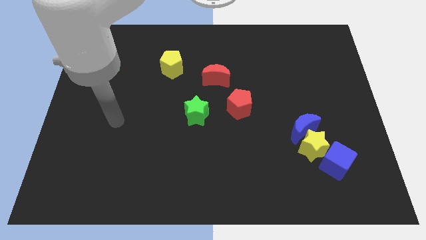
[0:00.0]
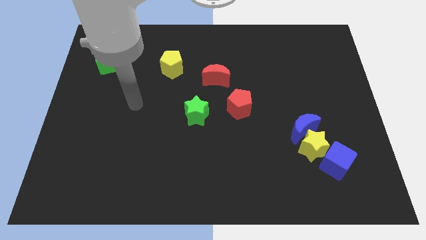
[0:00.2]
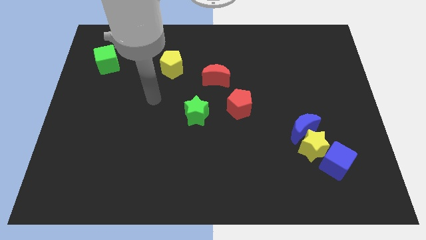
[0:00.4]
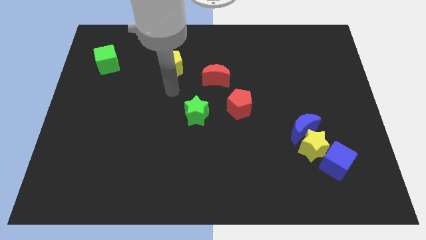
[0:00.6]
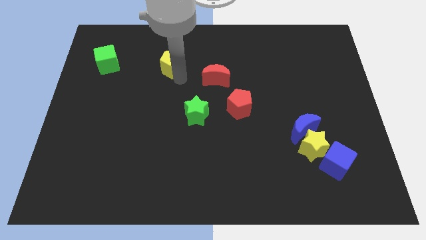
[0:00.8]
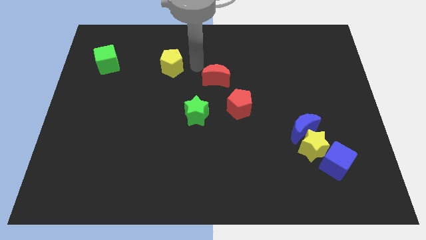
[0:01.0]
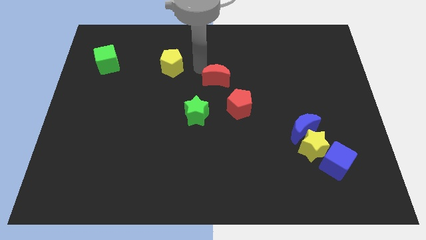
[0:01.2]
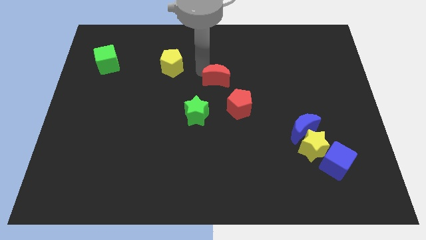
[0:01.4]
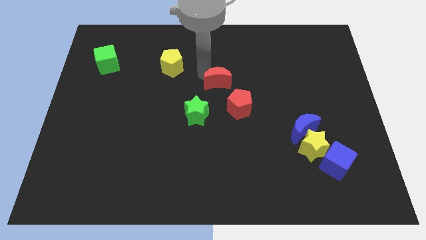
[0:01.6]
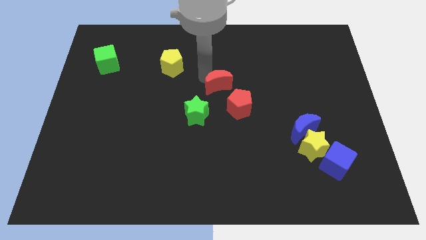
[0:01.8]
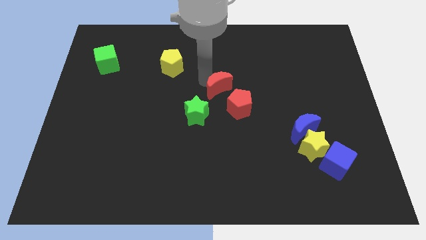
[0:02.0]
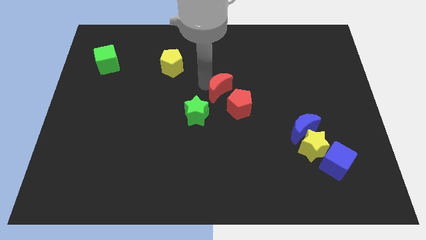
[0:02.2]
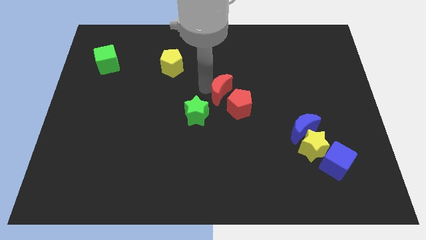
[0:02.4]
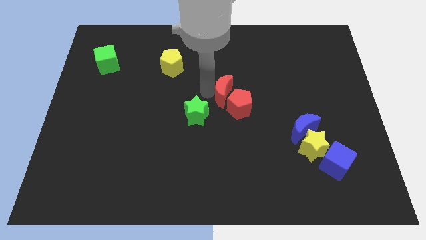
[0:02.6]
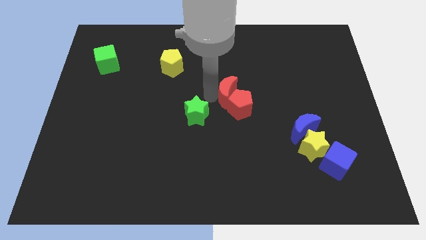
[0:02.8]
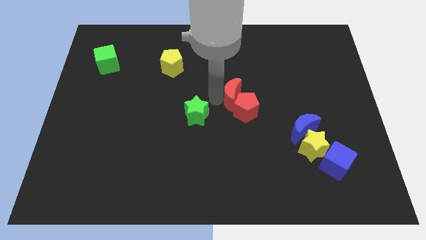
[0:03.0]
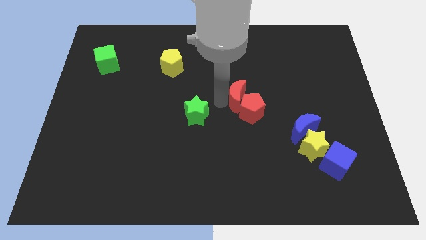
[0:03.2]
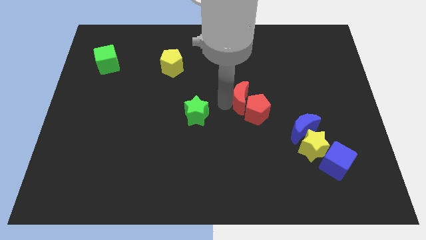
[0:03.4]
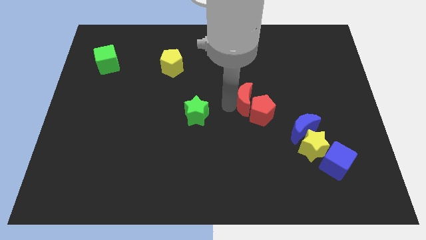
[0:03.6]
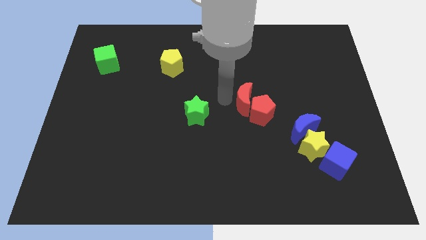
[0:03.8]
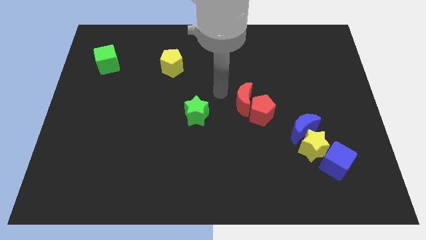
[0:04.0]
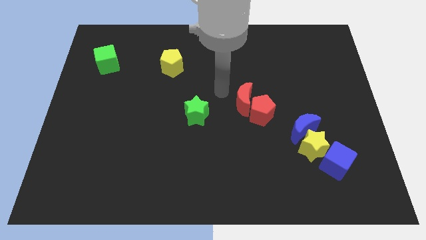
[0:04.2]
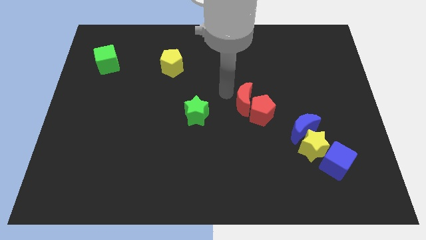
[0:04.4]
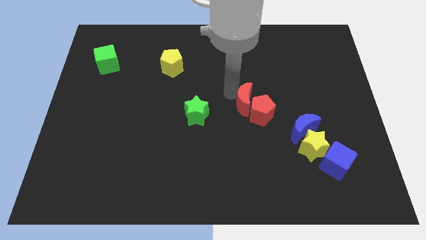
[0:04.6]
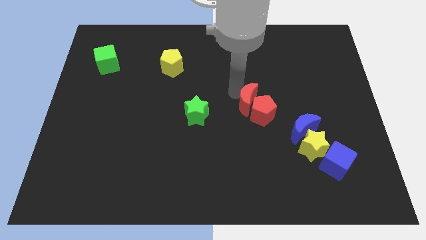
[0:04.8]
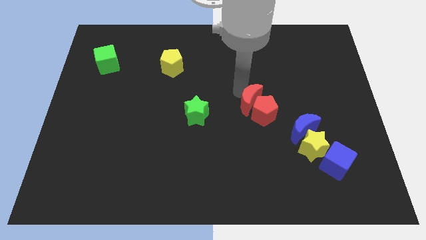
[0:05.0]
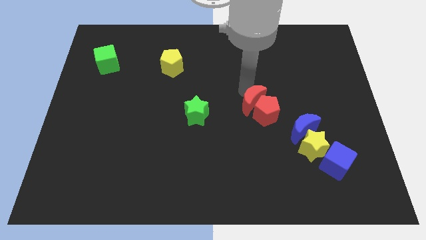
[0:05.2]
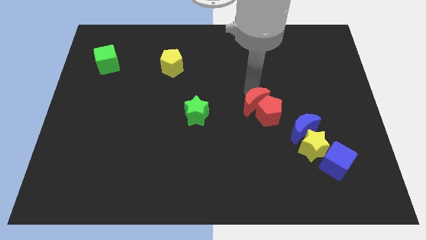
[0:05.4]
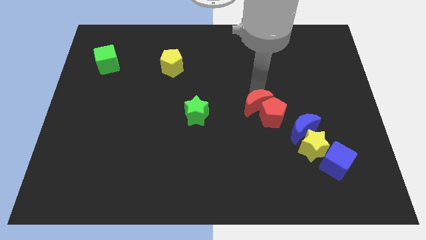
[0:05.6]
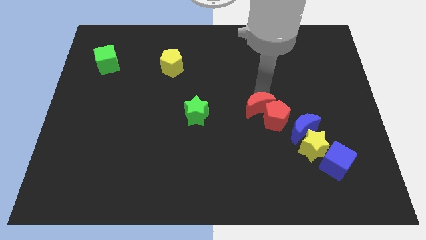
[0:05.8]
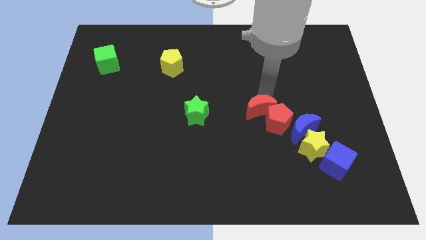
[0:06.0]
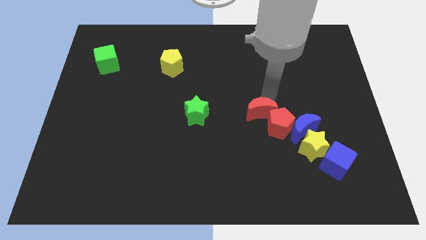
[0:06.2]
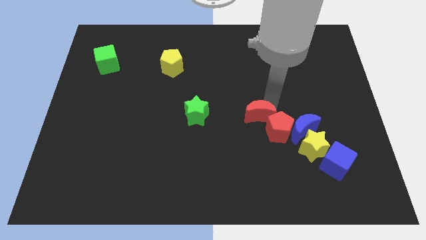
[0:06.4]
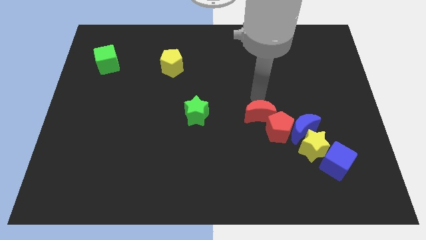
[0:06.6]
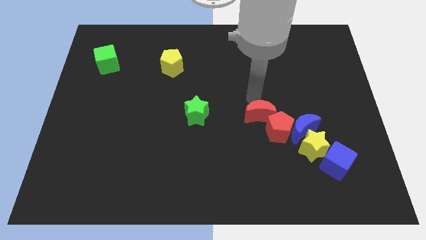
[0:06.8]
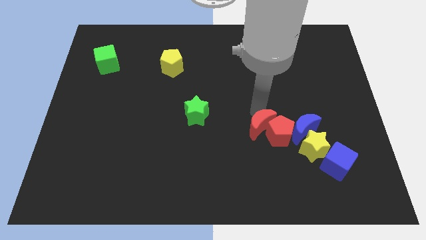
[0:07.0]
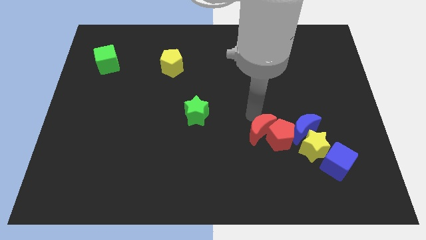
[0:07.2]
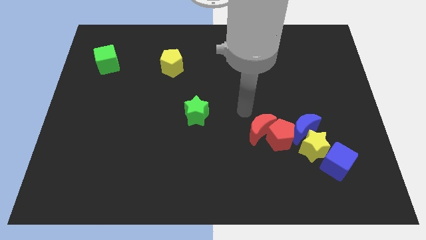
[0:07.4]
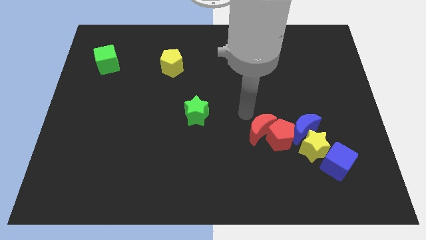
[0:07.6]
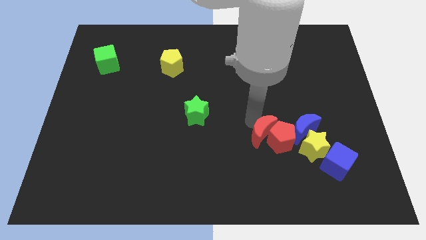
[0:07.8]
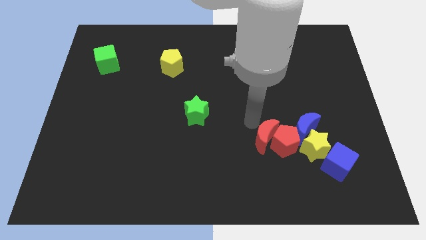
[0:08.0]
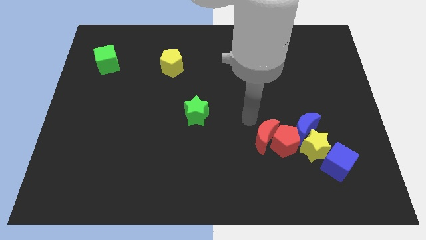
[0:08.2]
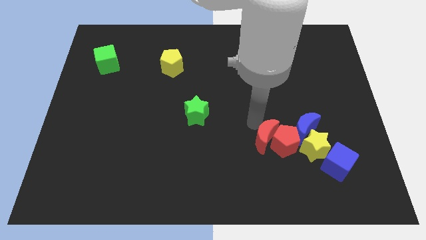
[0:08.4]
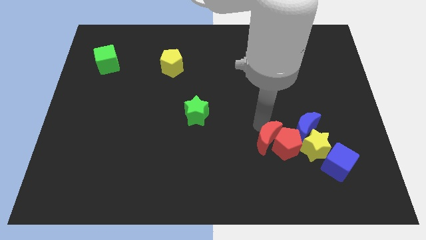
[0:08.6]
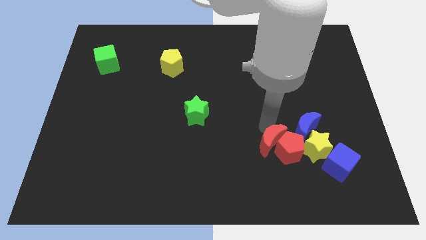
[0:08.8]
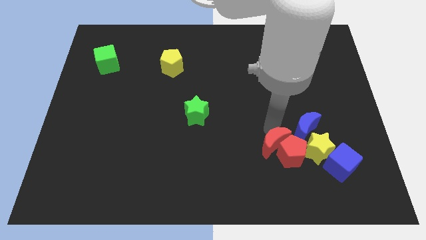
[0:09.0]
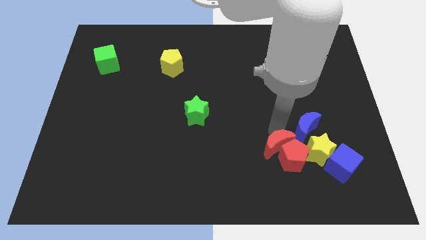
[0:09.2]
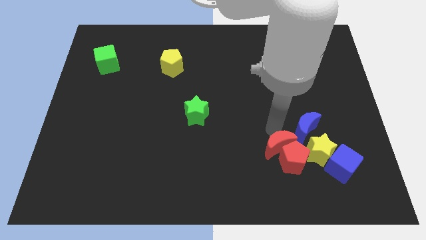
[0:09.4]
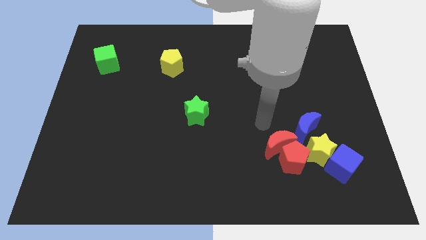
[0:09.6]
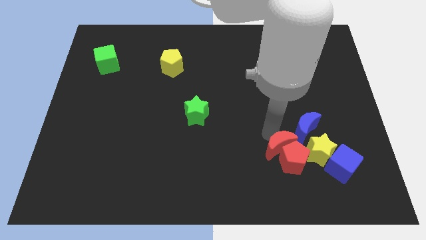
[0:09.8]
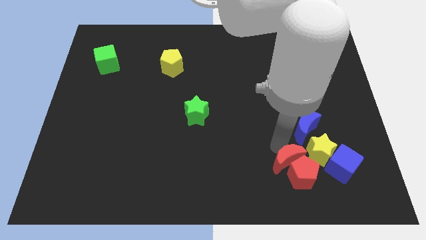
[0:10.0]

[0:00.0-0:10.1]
push the red moon to the bottom left side of the yellow star

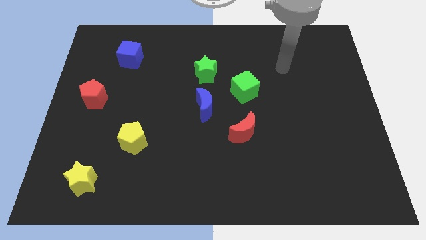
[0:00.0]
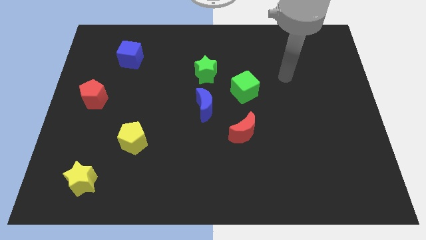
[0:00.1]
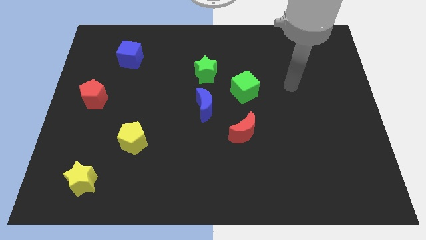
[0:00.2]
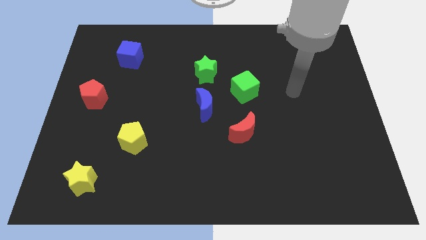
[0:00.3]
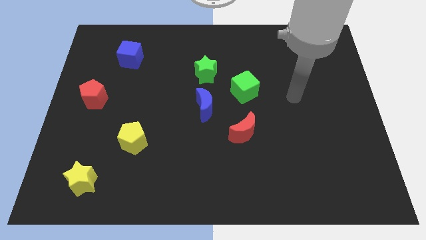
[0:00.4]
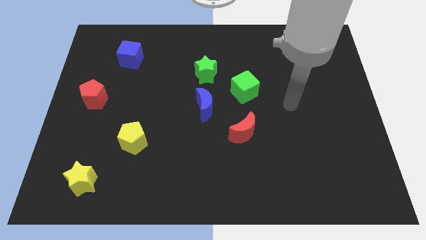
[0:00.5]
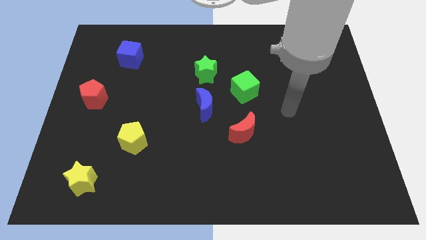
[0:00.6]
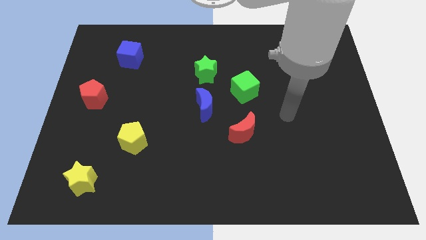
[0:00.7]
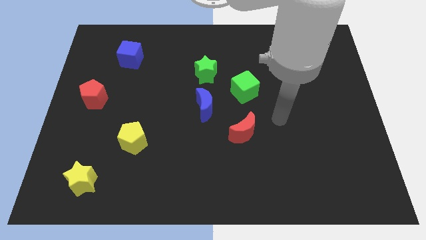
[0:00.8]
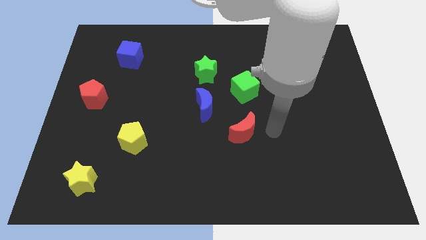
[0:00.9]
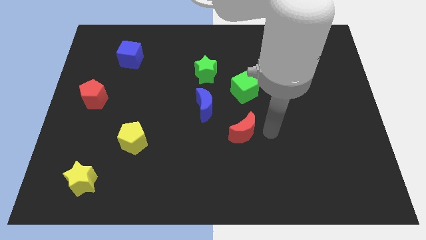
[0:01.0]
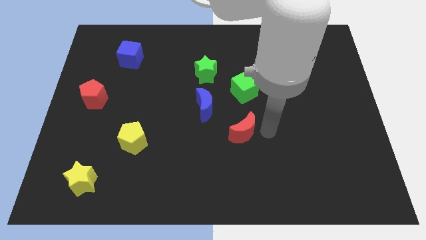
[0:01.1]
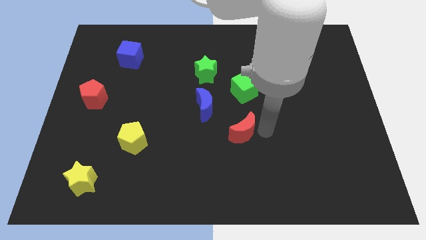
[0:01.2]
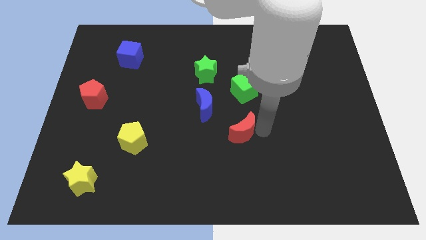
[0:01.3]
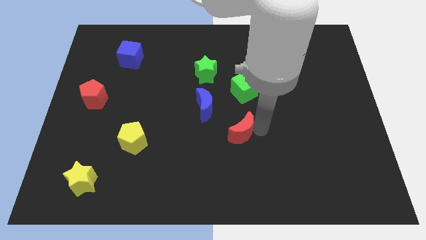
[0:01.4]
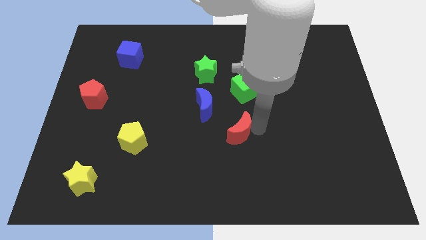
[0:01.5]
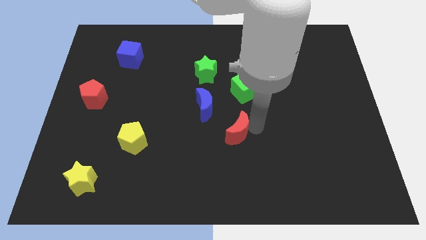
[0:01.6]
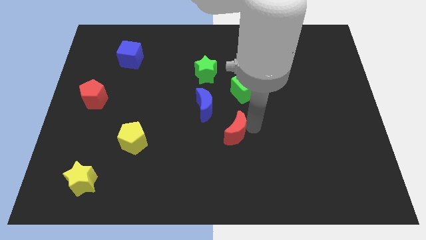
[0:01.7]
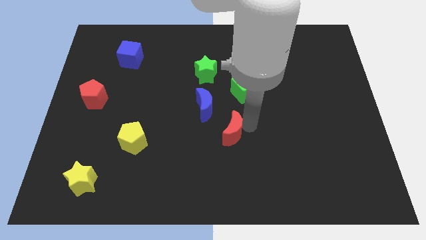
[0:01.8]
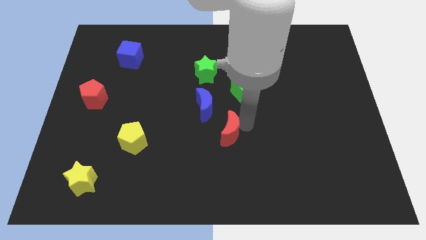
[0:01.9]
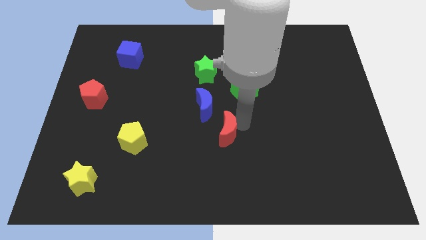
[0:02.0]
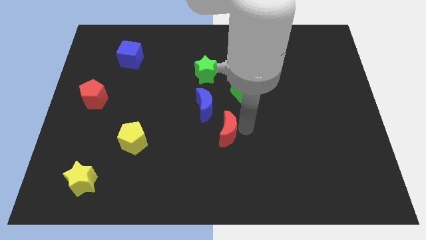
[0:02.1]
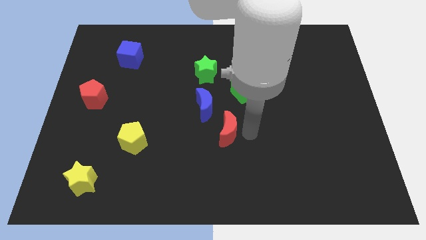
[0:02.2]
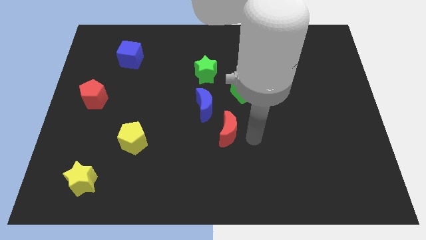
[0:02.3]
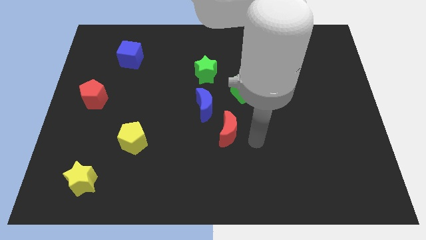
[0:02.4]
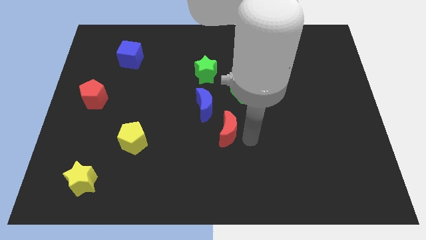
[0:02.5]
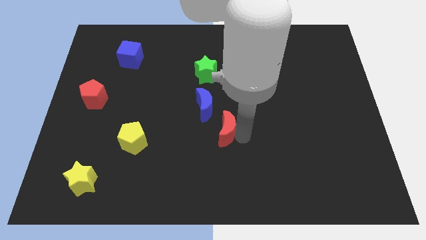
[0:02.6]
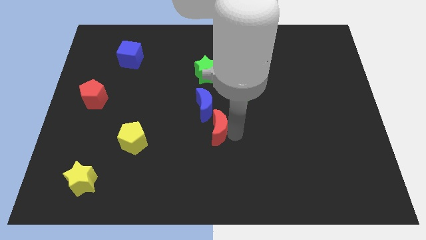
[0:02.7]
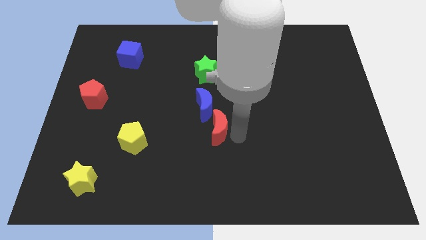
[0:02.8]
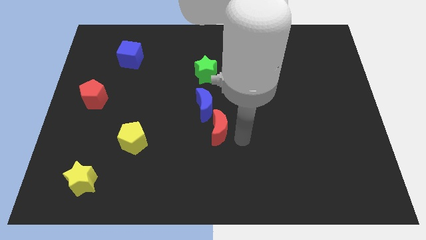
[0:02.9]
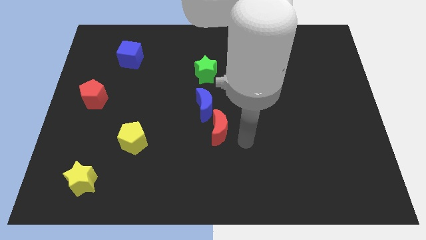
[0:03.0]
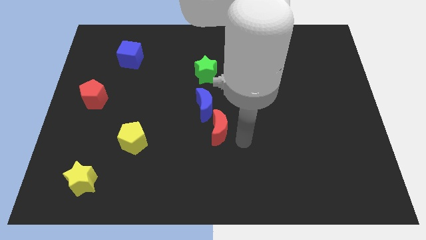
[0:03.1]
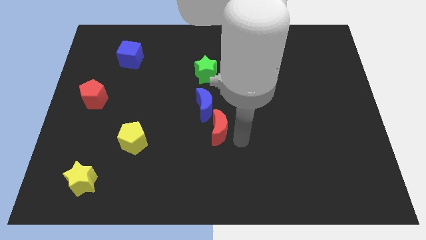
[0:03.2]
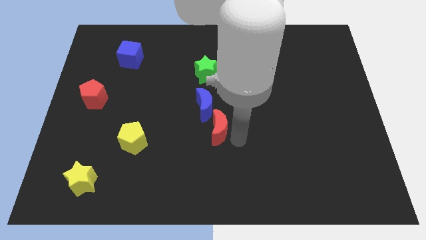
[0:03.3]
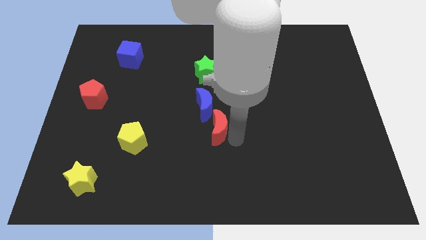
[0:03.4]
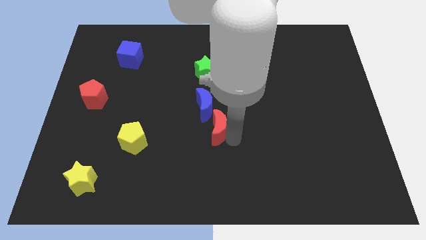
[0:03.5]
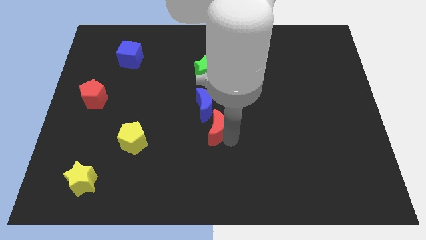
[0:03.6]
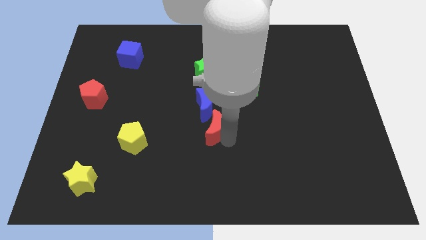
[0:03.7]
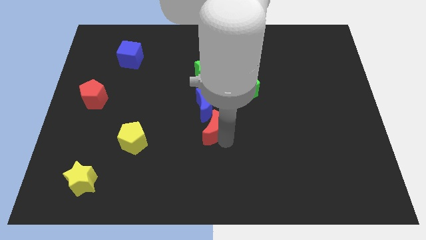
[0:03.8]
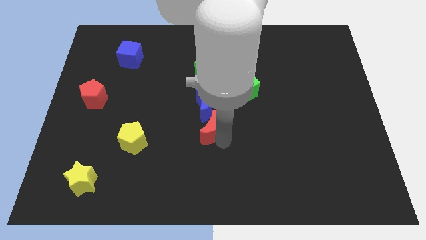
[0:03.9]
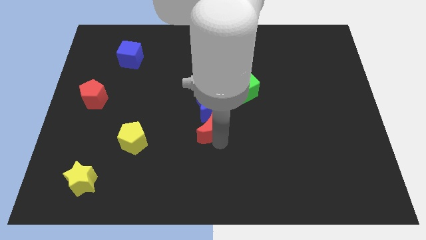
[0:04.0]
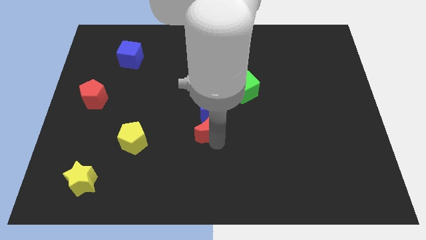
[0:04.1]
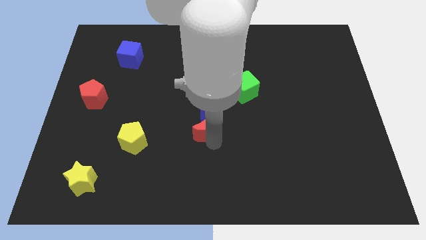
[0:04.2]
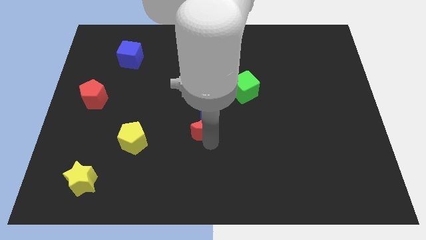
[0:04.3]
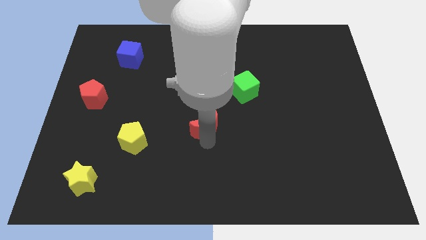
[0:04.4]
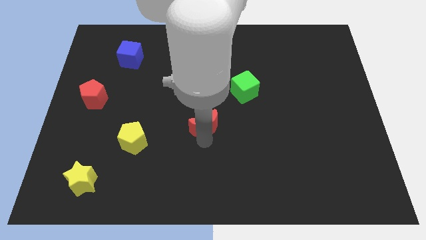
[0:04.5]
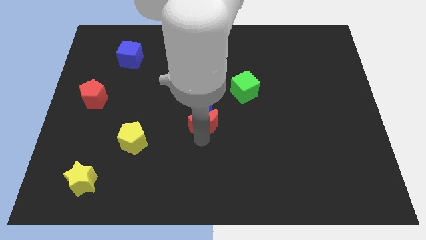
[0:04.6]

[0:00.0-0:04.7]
move the red moon to the bottom side of the green star
